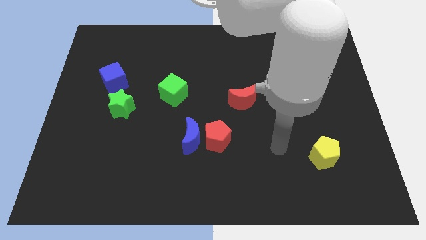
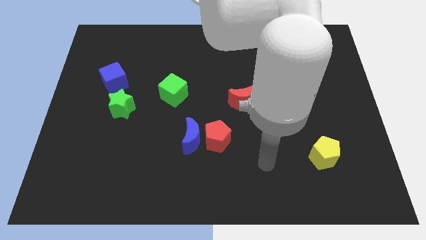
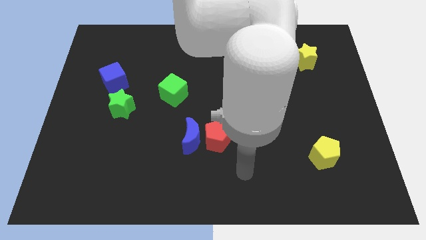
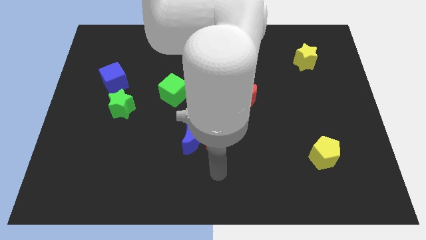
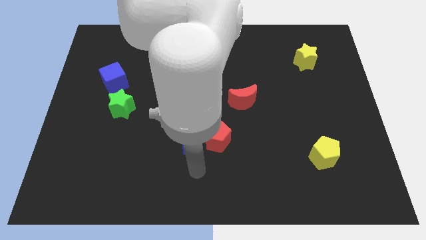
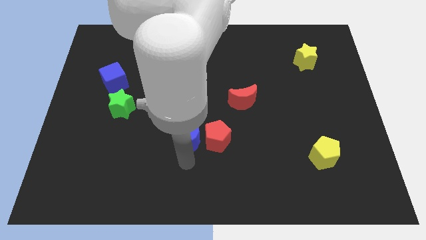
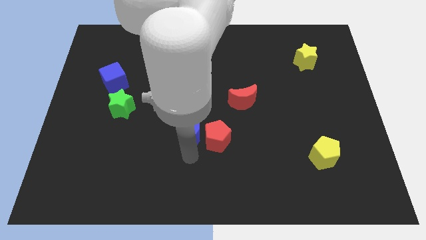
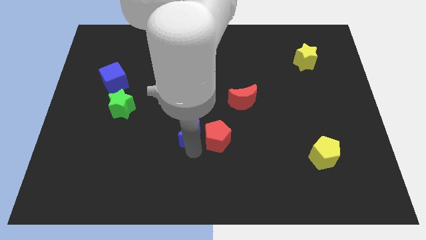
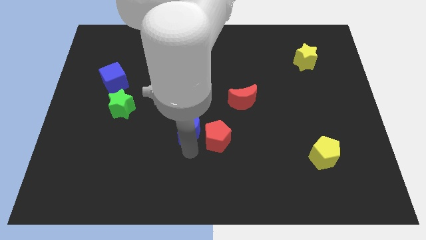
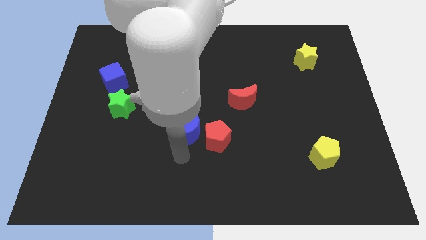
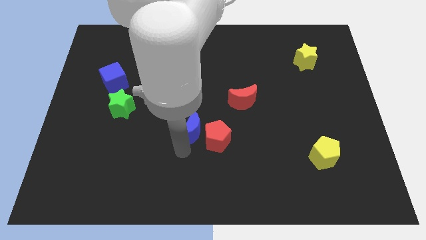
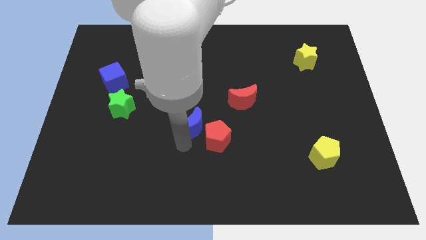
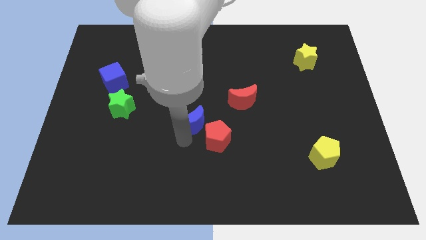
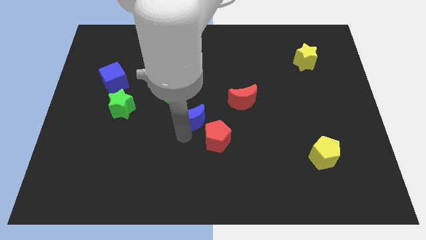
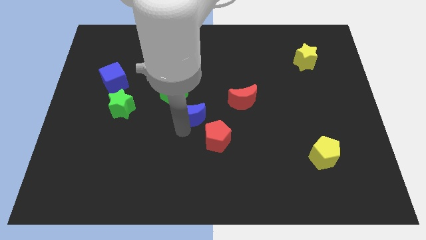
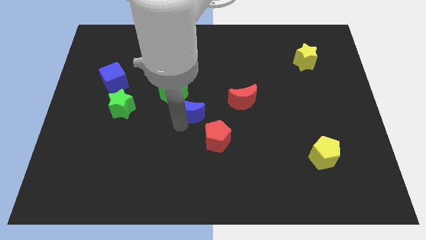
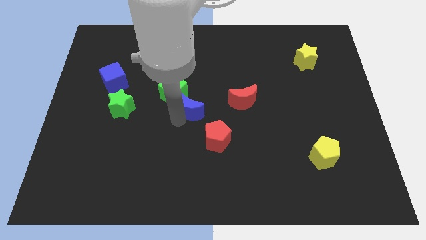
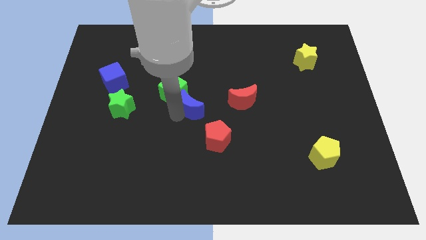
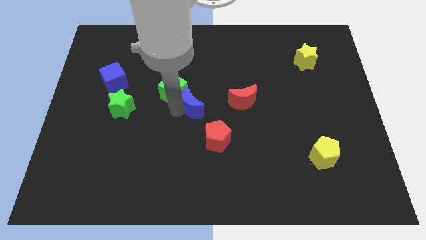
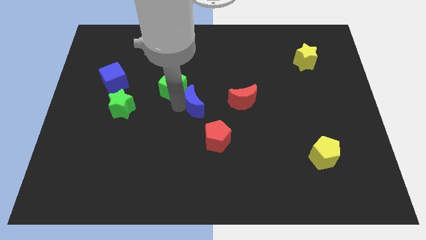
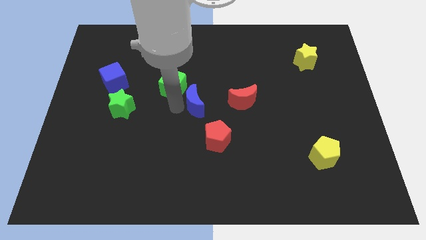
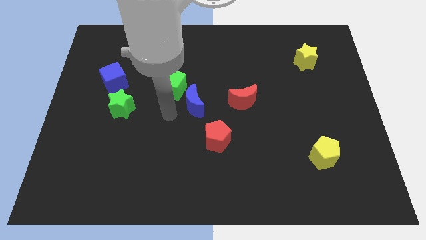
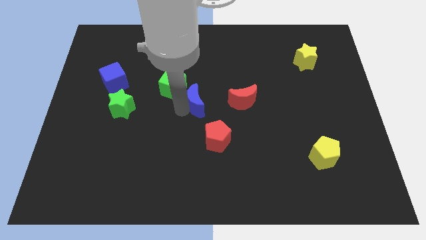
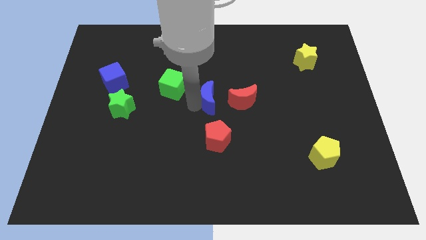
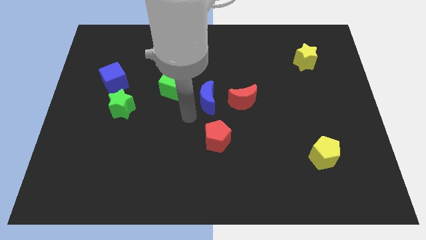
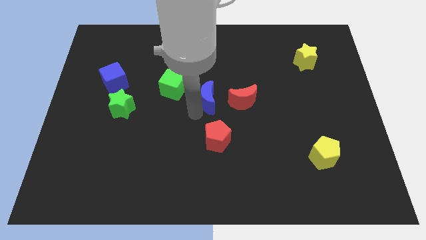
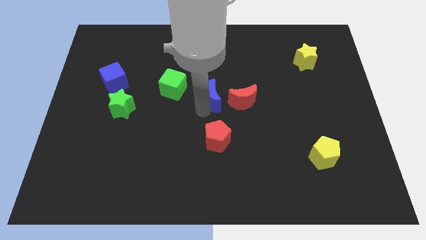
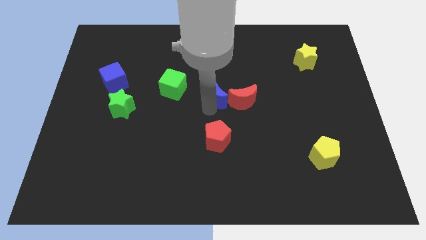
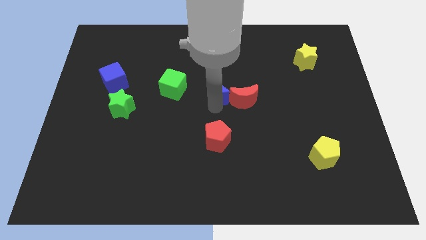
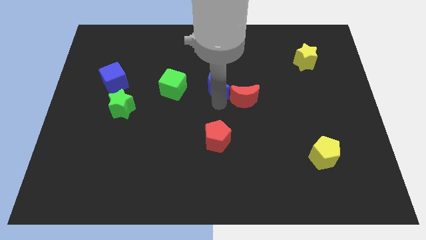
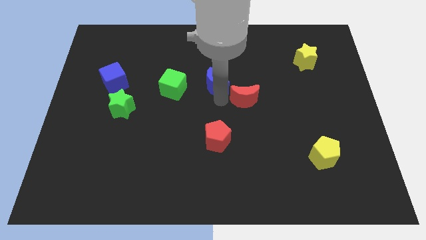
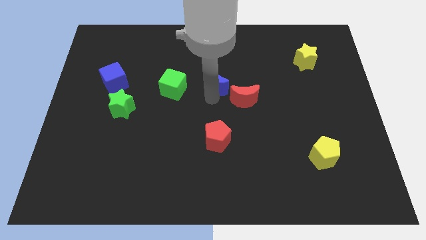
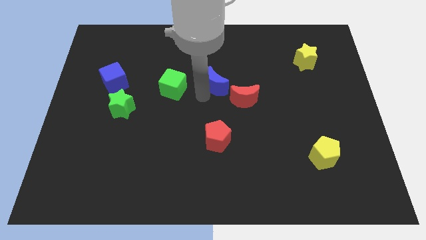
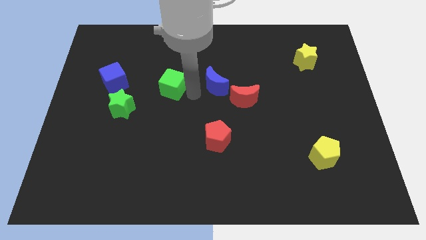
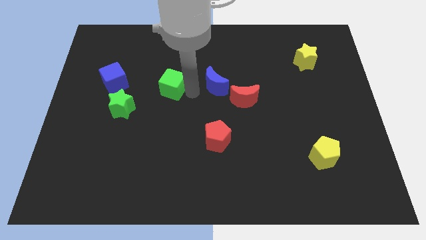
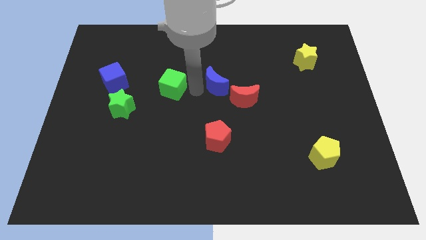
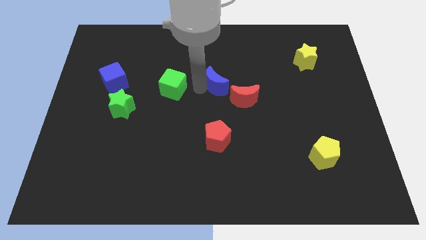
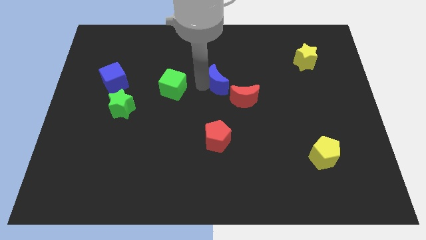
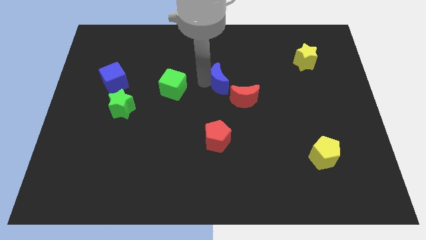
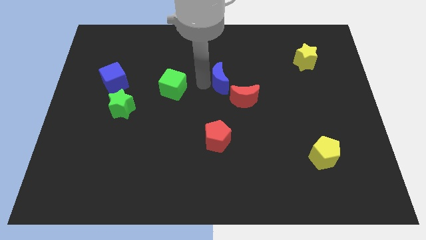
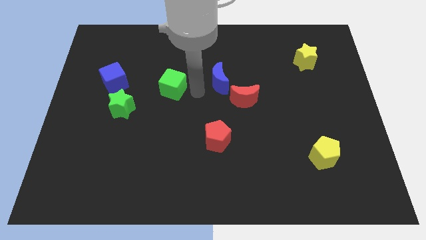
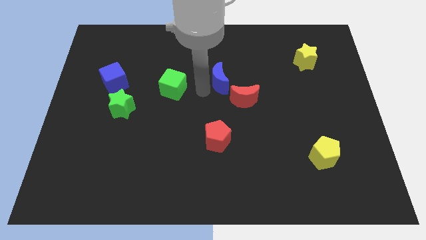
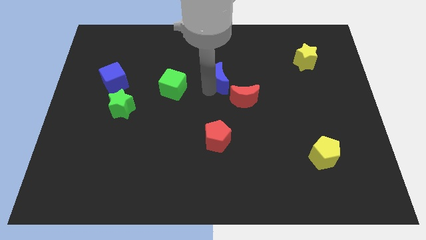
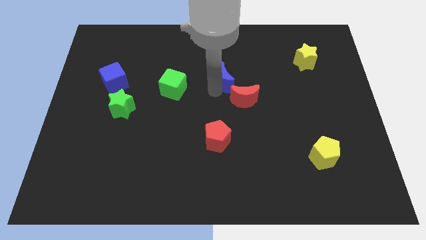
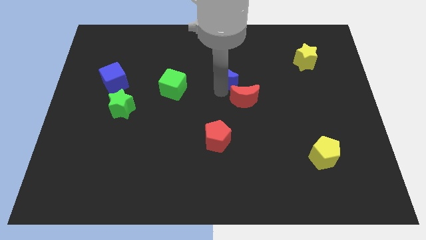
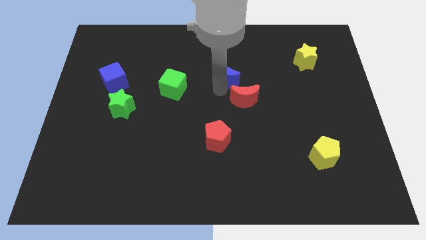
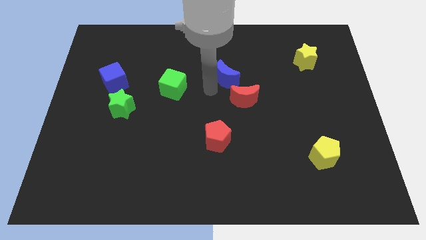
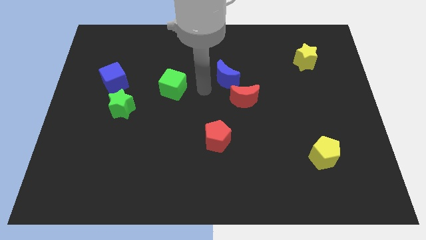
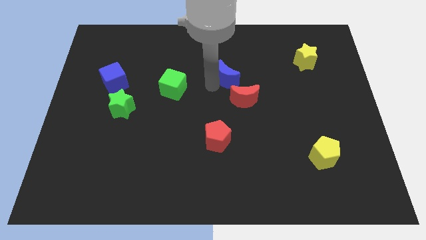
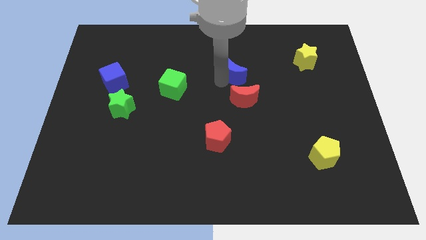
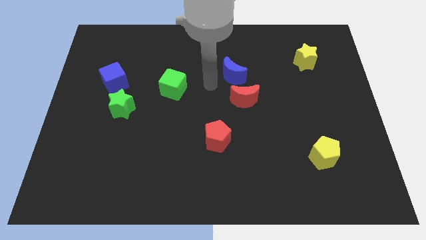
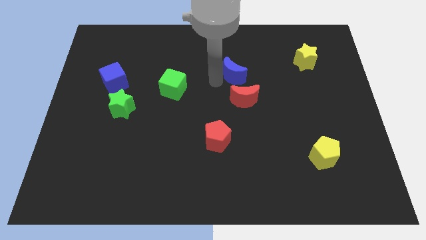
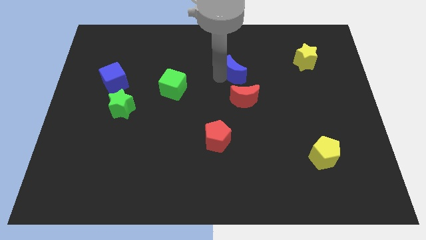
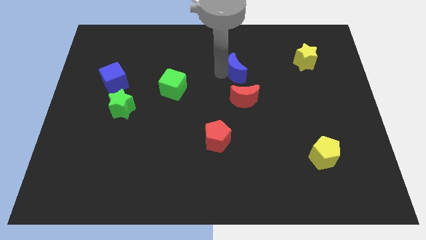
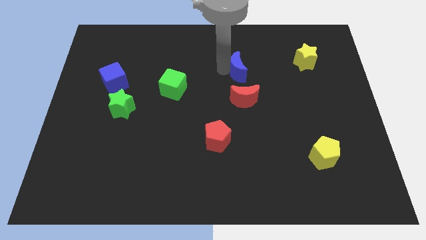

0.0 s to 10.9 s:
slide the blue moon diagonally up and right

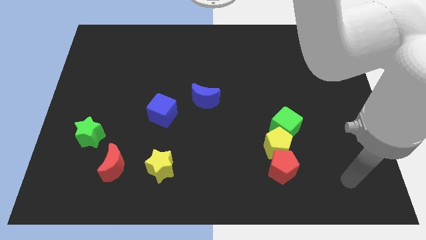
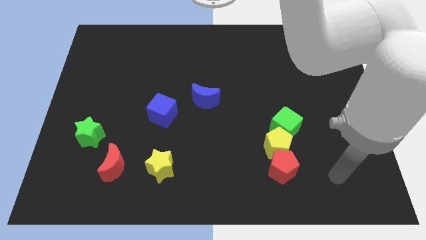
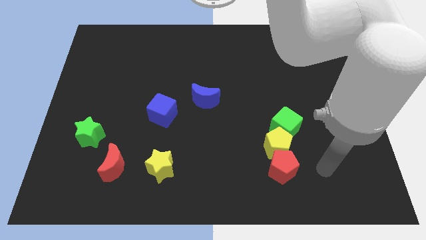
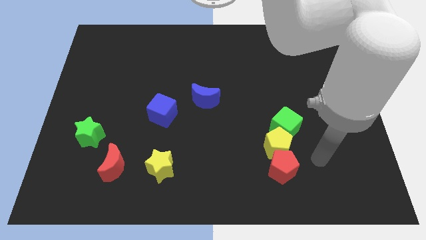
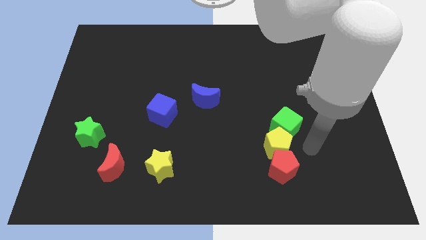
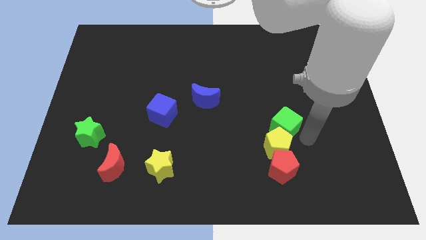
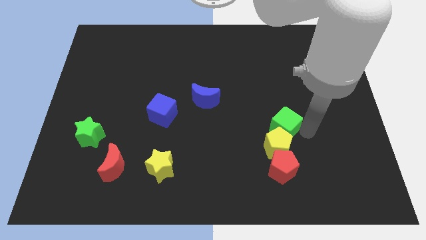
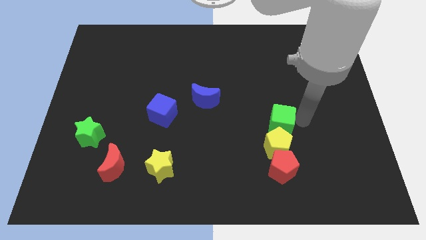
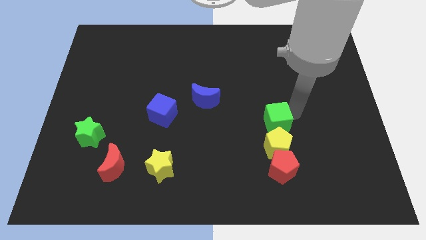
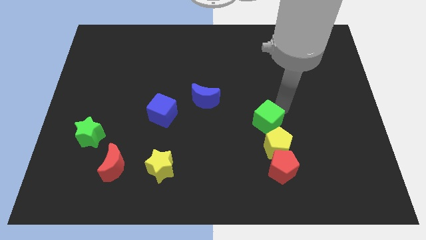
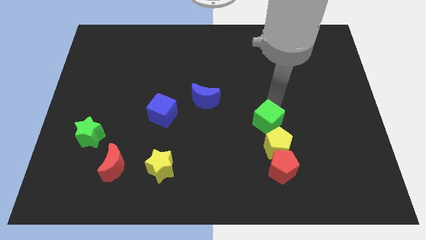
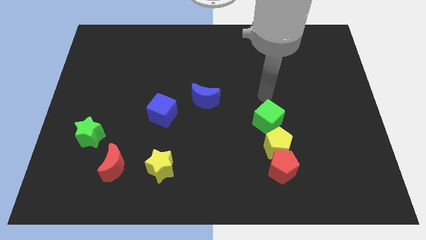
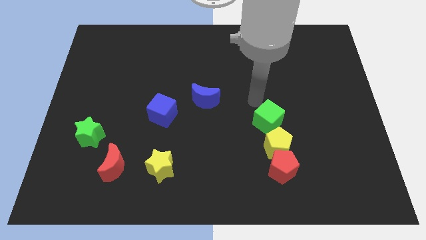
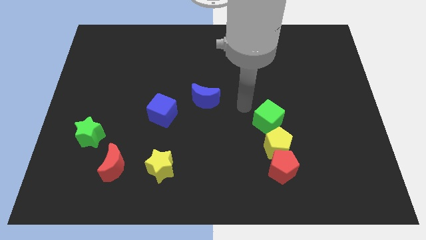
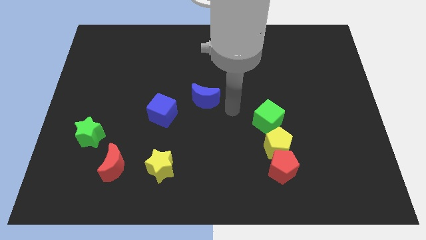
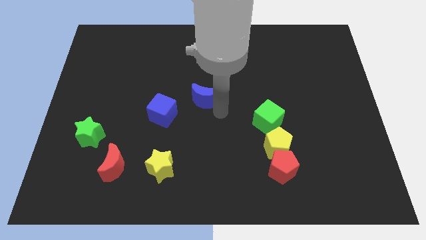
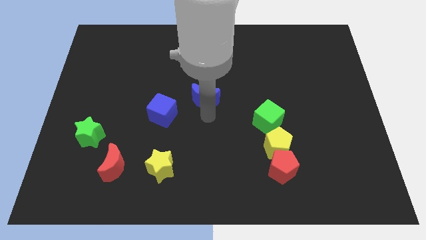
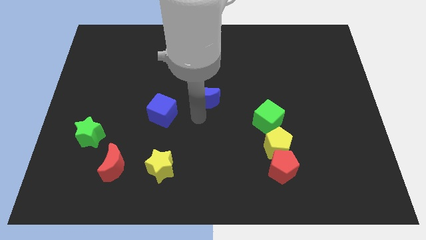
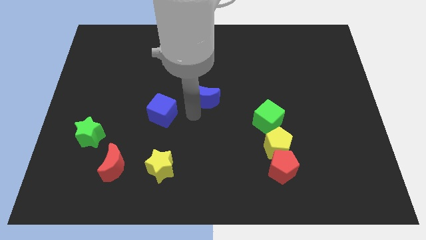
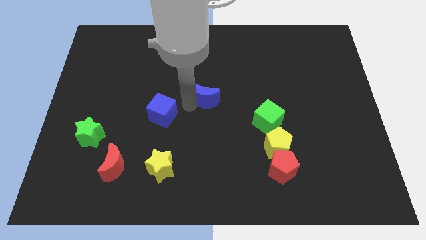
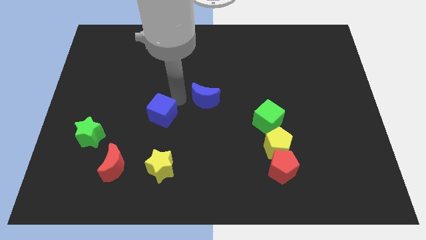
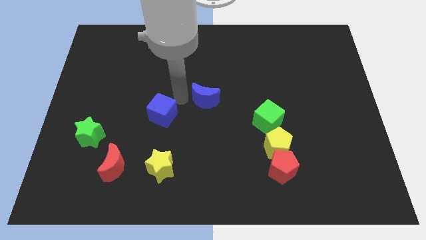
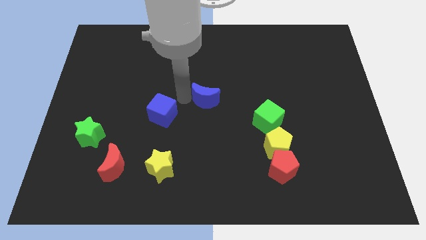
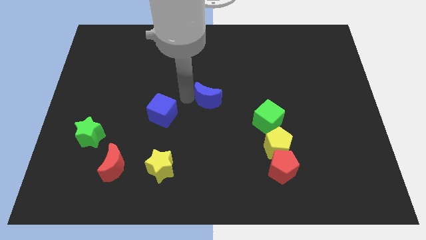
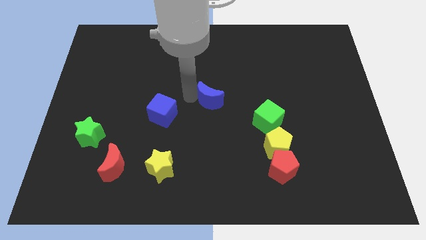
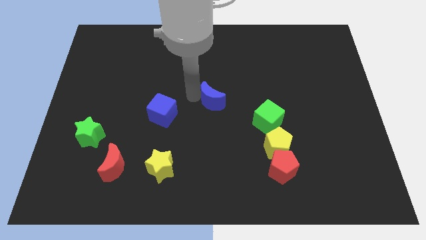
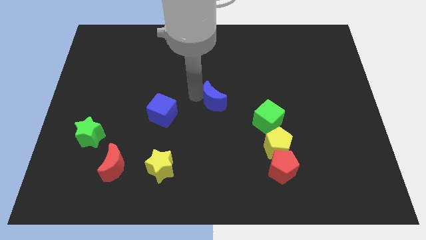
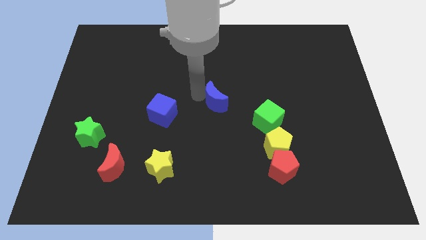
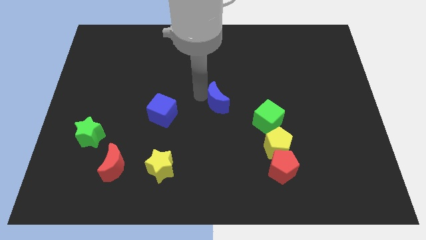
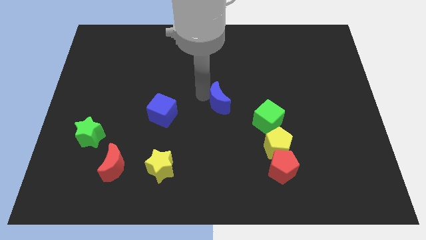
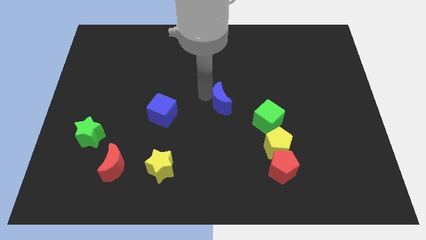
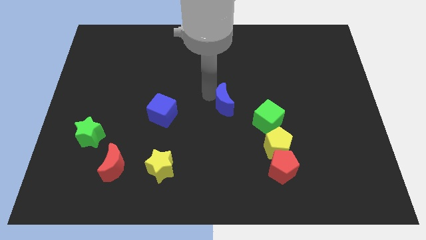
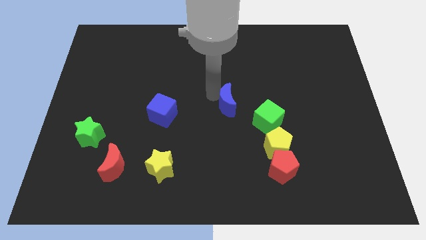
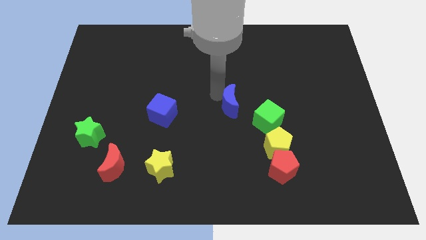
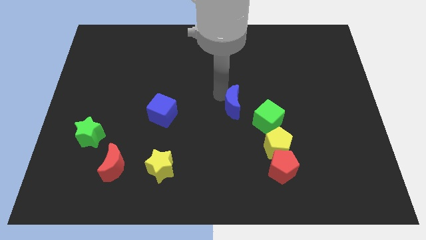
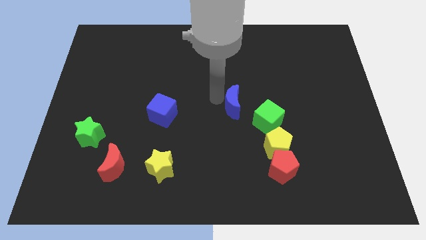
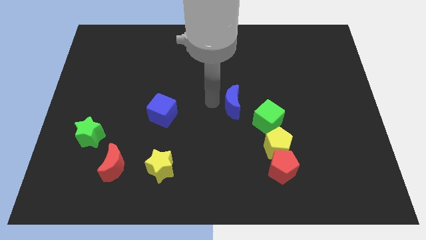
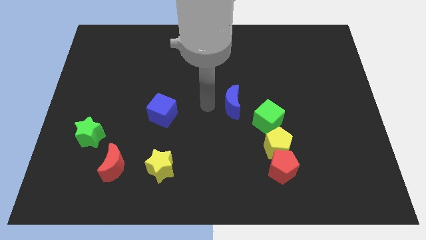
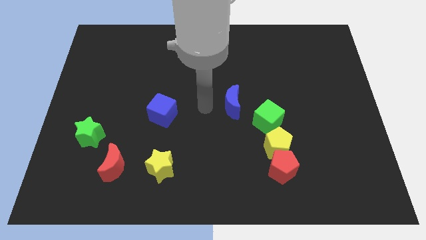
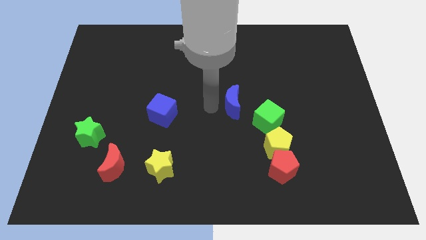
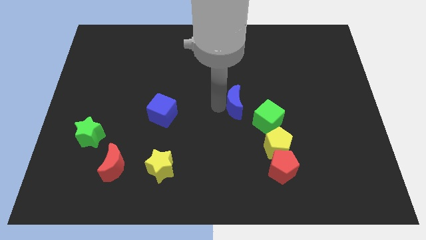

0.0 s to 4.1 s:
slide the blue moon right slightly
